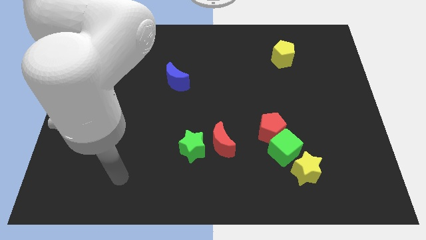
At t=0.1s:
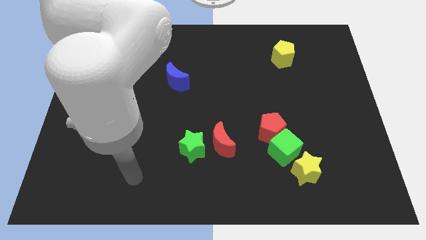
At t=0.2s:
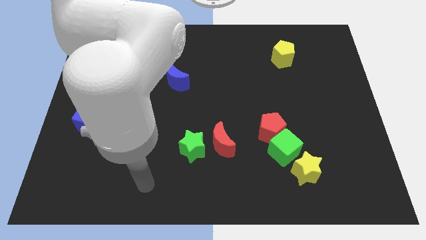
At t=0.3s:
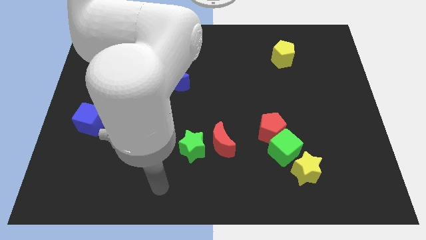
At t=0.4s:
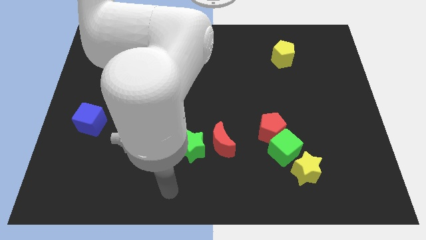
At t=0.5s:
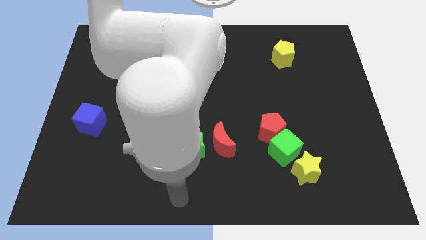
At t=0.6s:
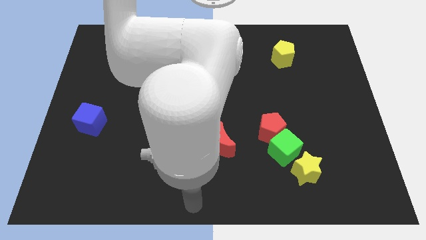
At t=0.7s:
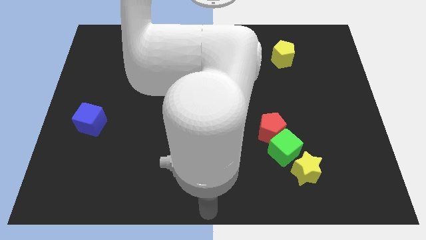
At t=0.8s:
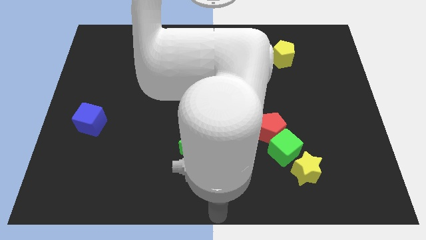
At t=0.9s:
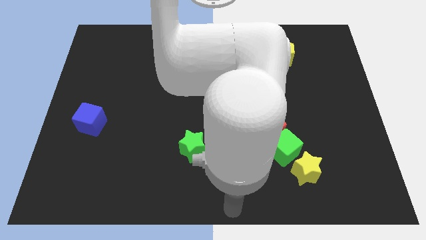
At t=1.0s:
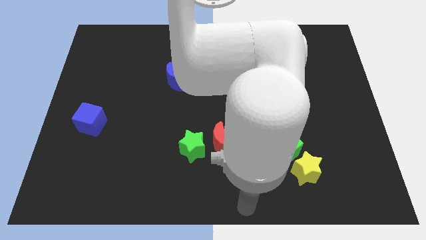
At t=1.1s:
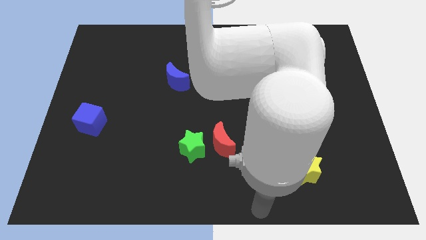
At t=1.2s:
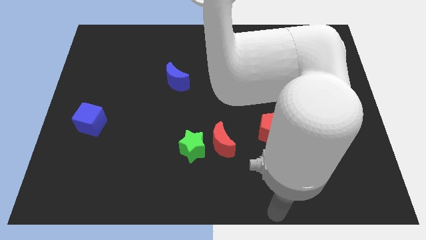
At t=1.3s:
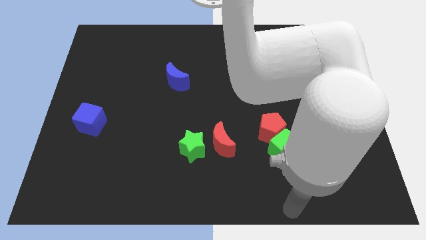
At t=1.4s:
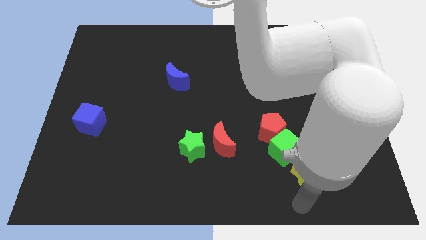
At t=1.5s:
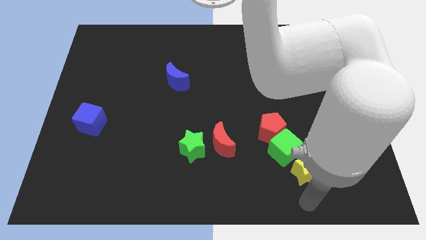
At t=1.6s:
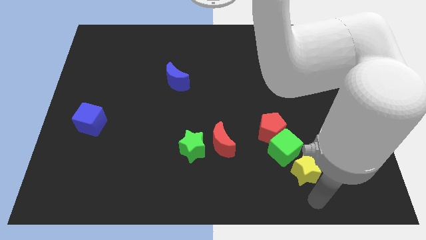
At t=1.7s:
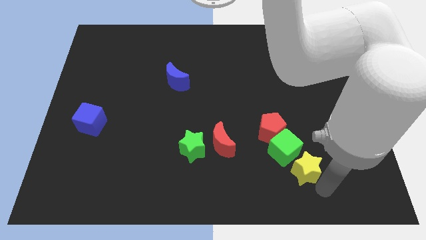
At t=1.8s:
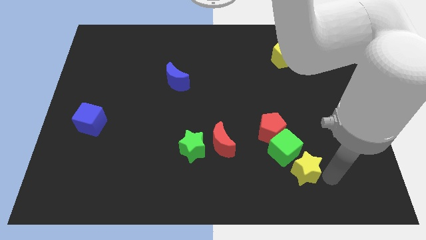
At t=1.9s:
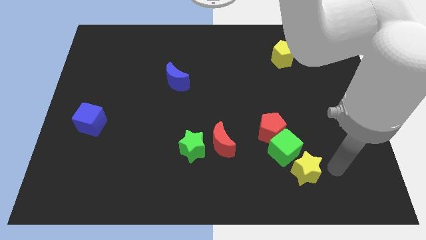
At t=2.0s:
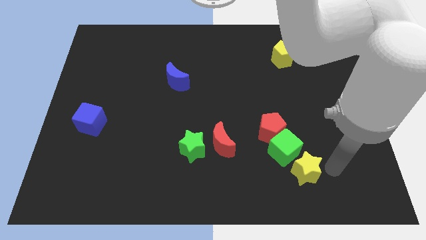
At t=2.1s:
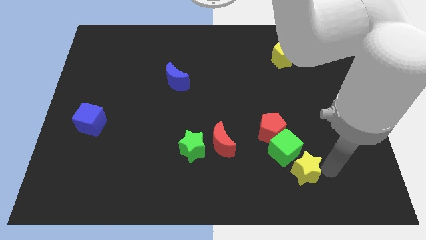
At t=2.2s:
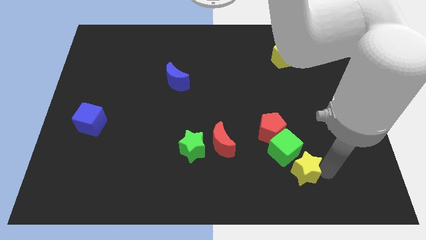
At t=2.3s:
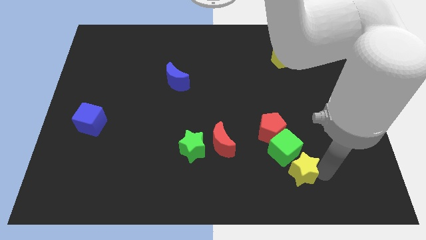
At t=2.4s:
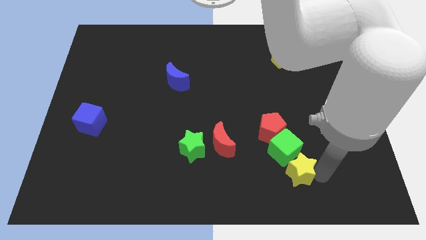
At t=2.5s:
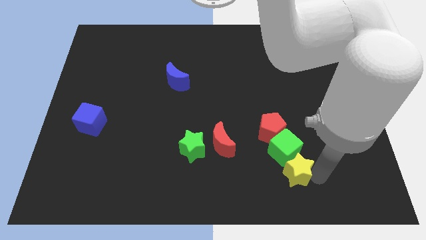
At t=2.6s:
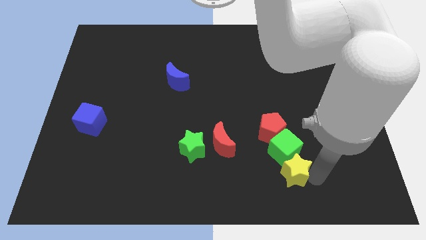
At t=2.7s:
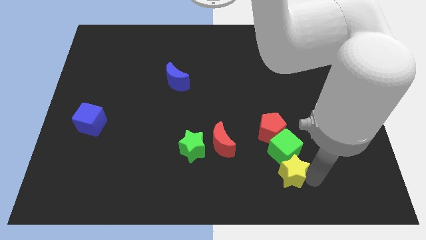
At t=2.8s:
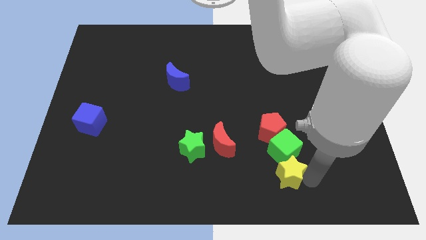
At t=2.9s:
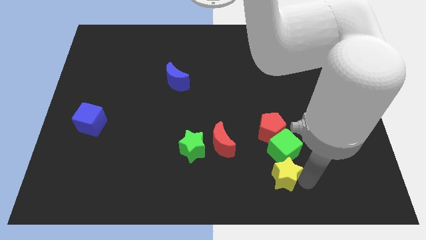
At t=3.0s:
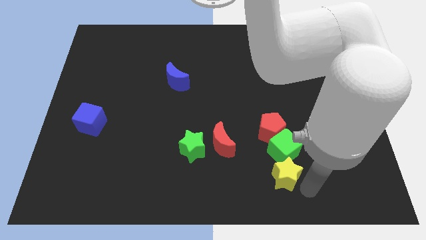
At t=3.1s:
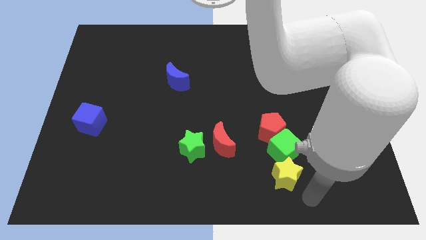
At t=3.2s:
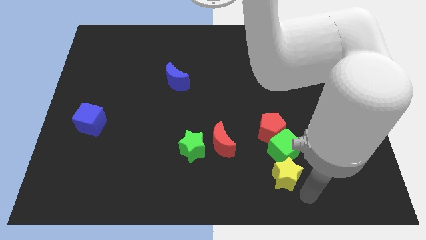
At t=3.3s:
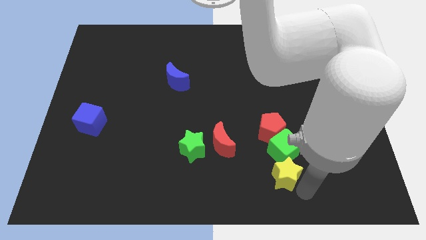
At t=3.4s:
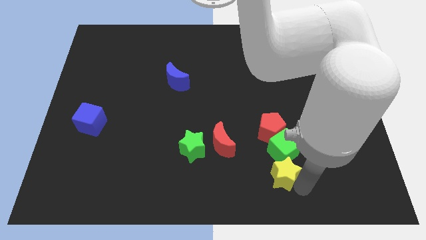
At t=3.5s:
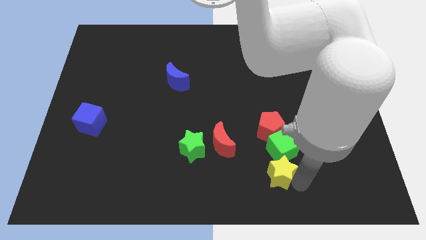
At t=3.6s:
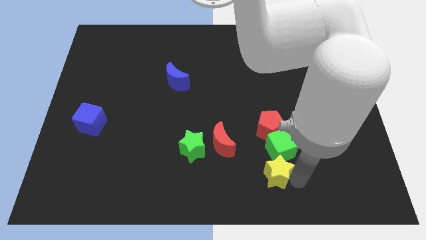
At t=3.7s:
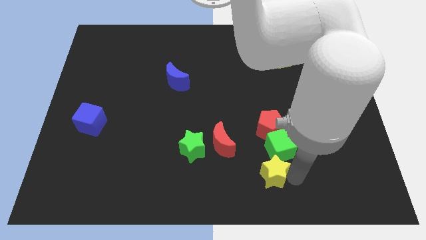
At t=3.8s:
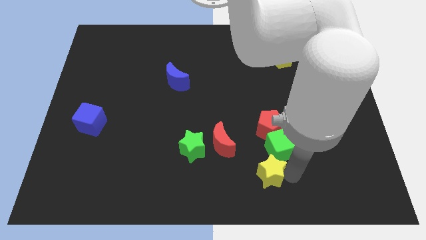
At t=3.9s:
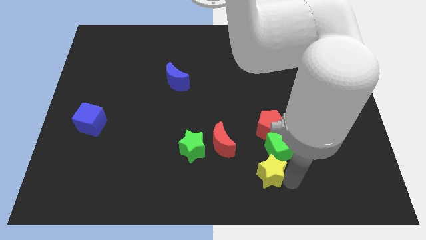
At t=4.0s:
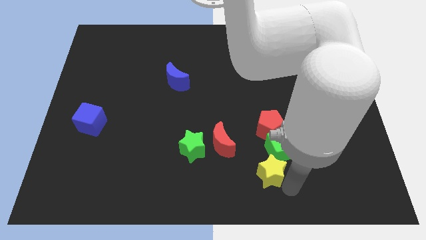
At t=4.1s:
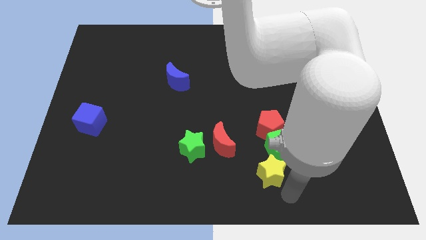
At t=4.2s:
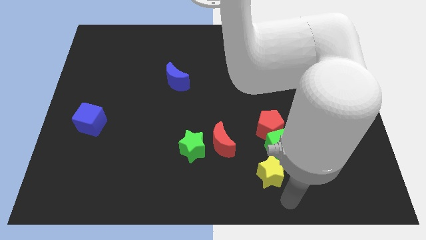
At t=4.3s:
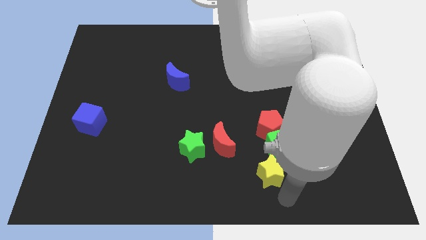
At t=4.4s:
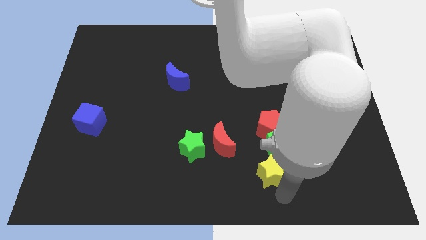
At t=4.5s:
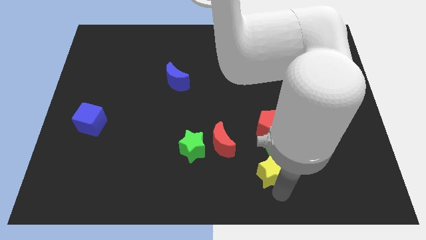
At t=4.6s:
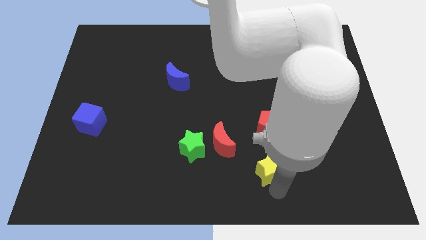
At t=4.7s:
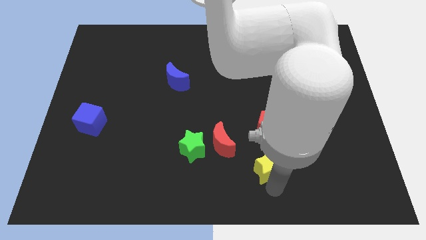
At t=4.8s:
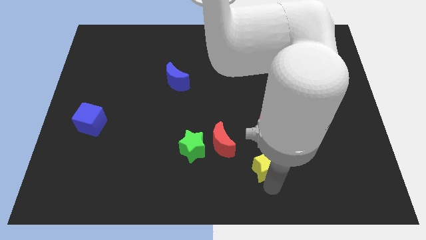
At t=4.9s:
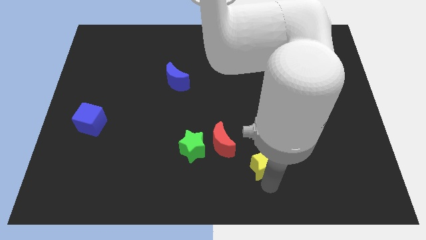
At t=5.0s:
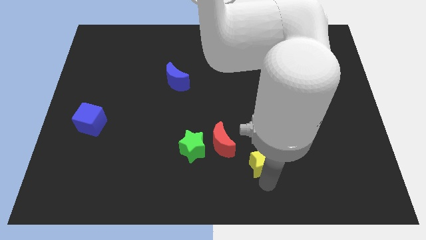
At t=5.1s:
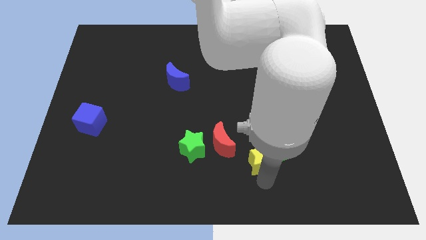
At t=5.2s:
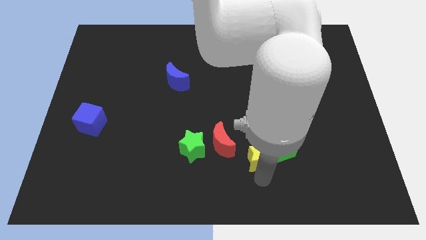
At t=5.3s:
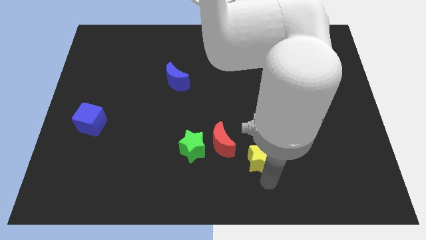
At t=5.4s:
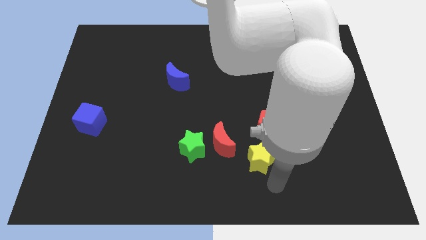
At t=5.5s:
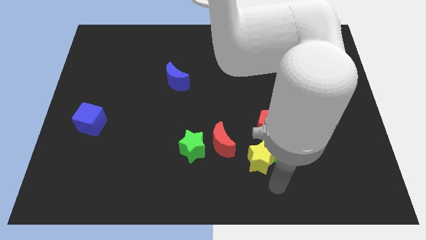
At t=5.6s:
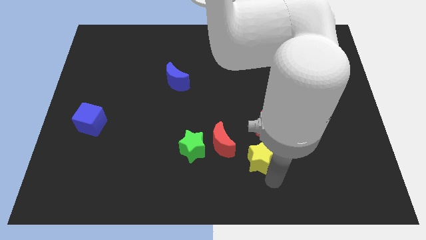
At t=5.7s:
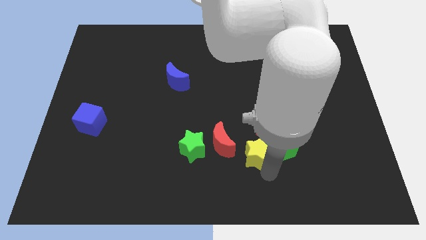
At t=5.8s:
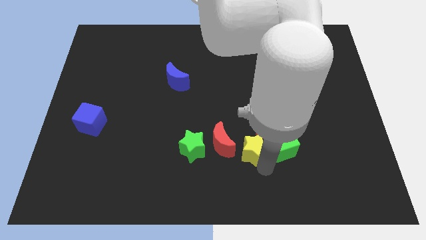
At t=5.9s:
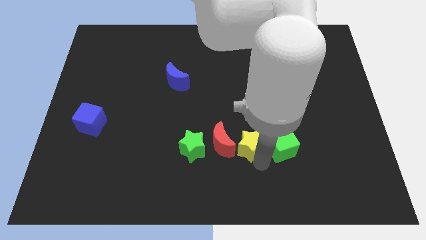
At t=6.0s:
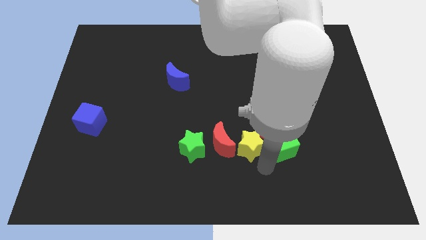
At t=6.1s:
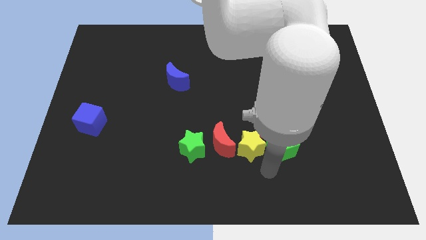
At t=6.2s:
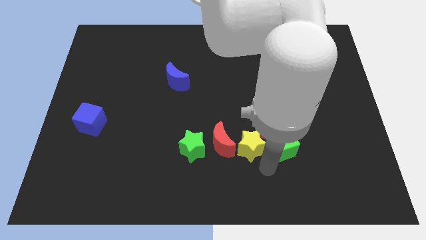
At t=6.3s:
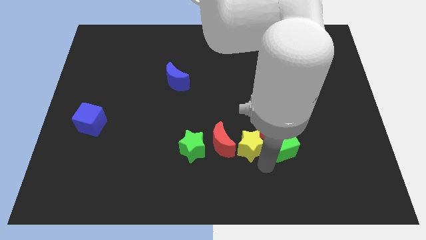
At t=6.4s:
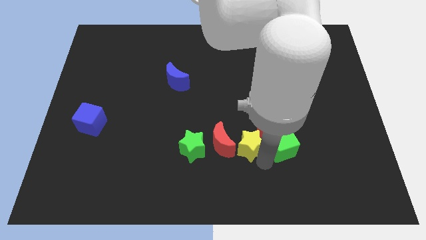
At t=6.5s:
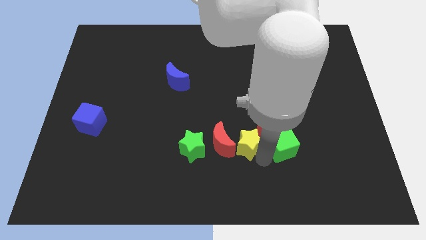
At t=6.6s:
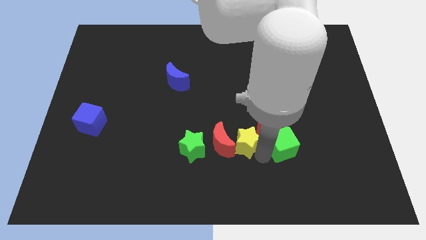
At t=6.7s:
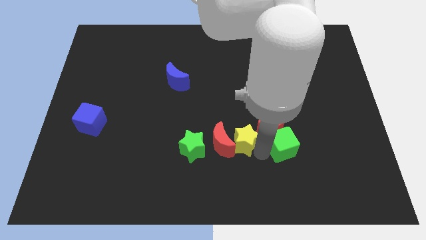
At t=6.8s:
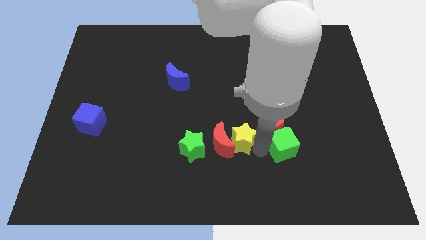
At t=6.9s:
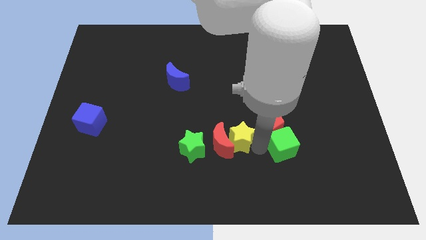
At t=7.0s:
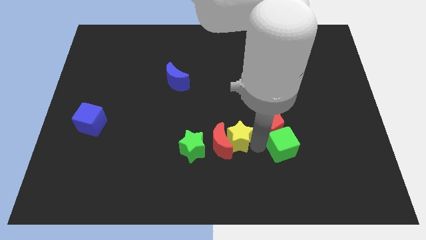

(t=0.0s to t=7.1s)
put the yellow star to the middle
